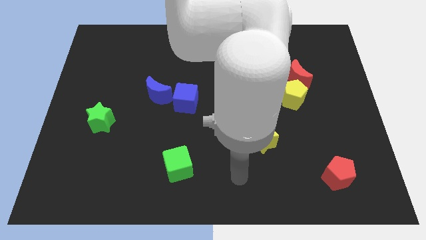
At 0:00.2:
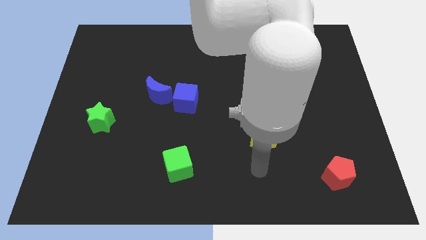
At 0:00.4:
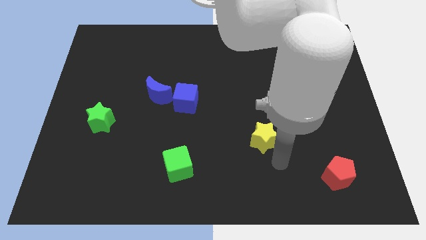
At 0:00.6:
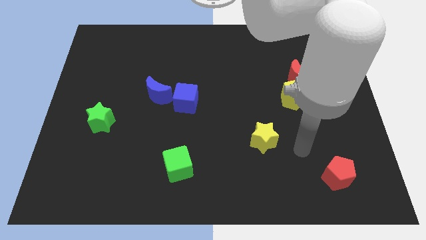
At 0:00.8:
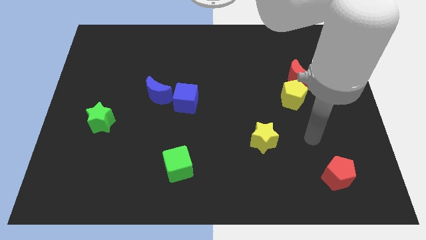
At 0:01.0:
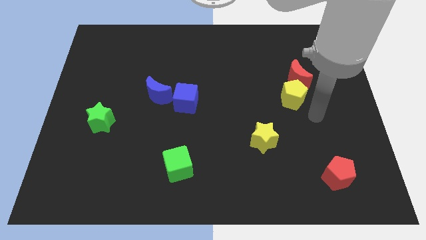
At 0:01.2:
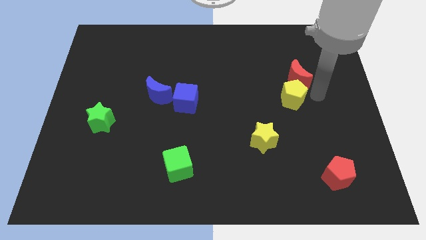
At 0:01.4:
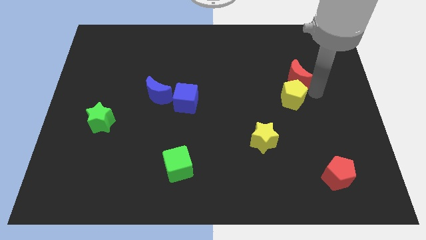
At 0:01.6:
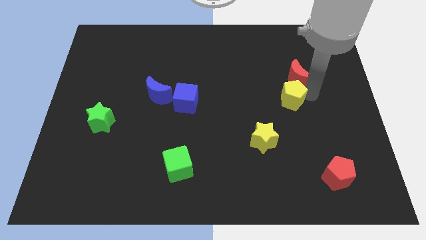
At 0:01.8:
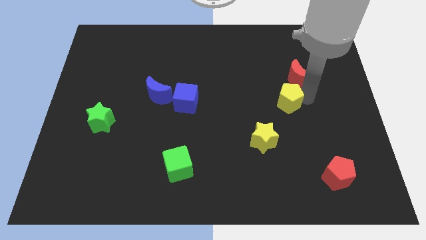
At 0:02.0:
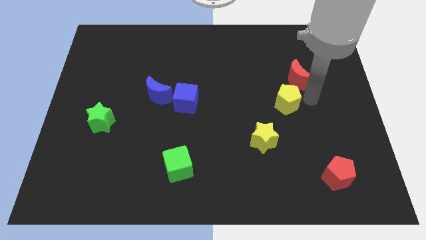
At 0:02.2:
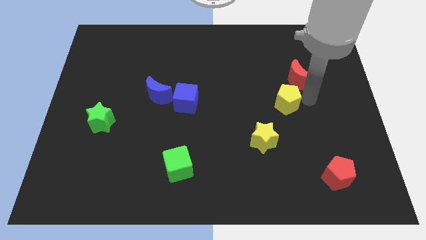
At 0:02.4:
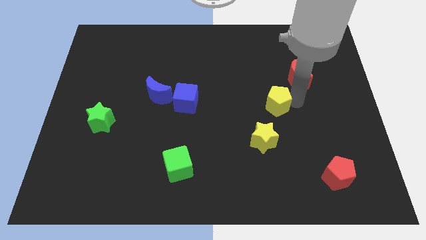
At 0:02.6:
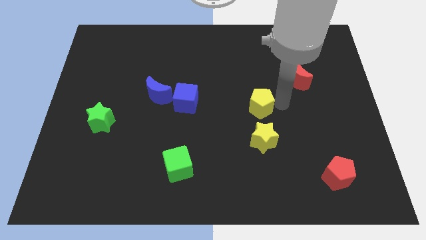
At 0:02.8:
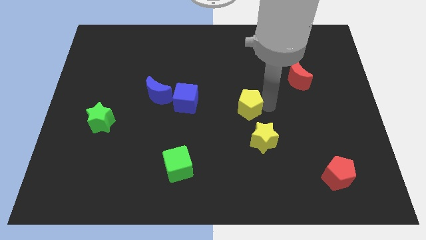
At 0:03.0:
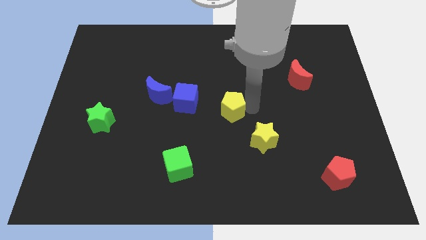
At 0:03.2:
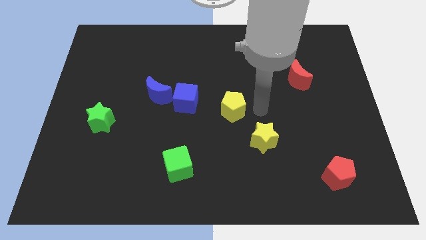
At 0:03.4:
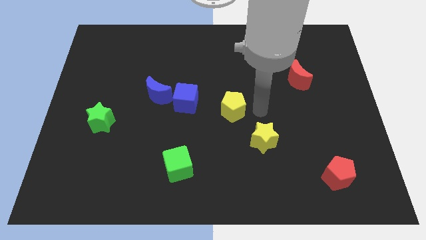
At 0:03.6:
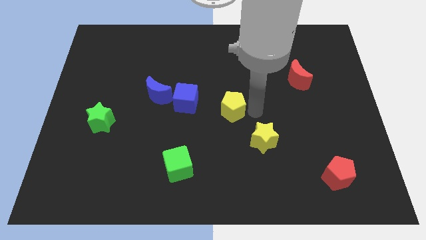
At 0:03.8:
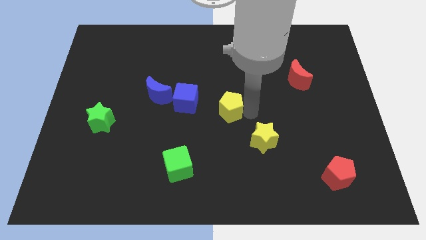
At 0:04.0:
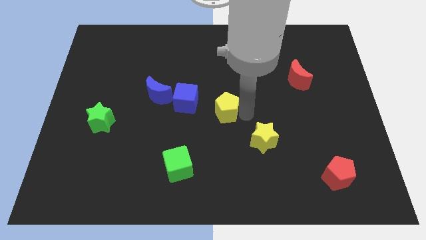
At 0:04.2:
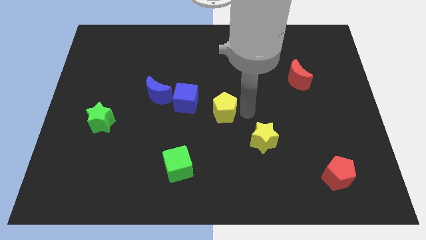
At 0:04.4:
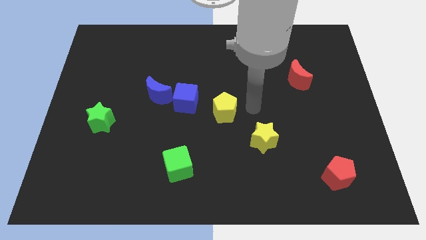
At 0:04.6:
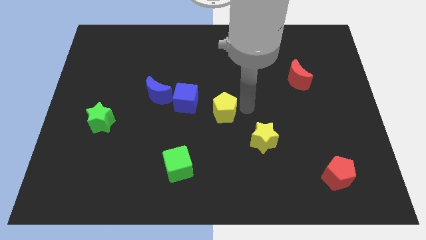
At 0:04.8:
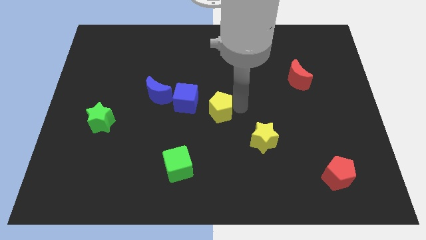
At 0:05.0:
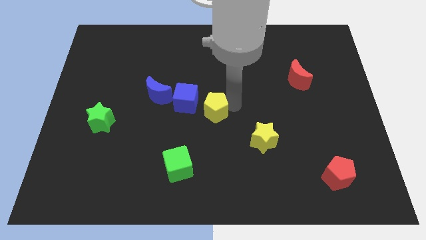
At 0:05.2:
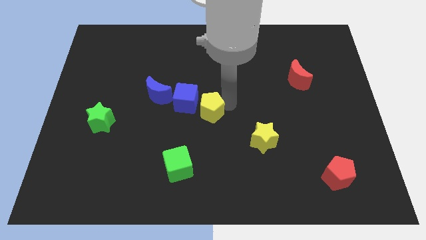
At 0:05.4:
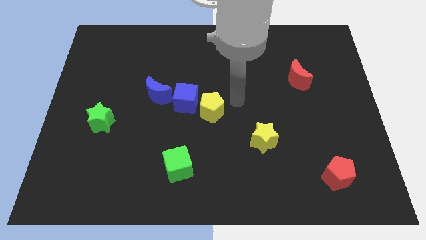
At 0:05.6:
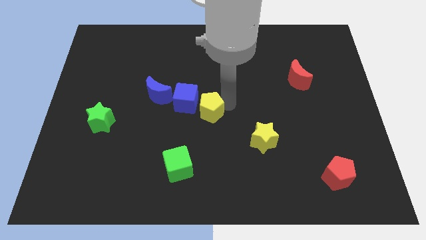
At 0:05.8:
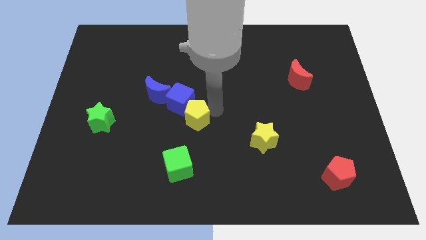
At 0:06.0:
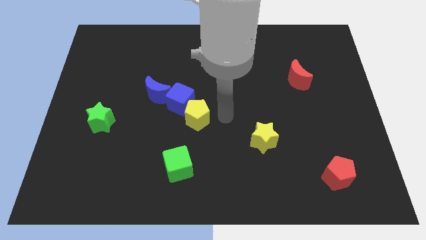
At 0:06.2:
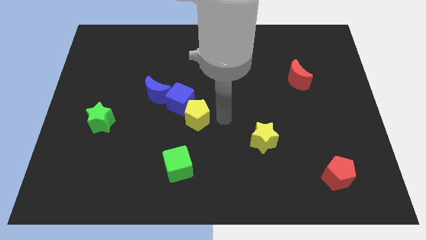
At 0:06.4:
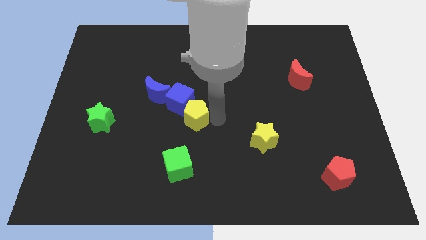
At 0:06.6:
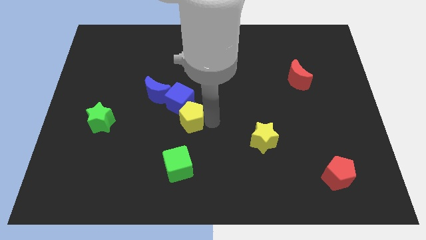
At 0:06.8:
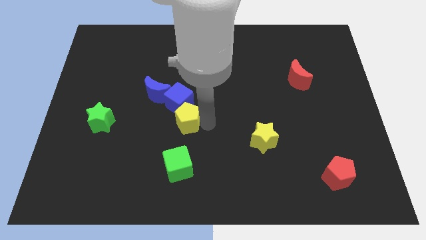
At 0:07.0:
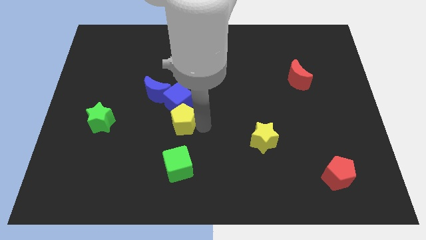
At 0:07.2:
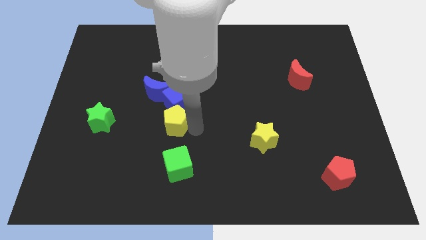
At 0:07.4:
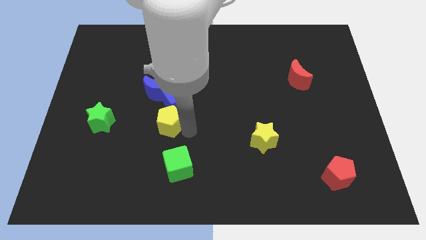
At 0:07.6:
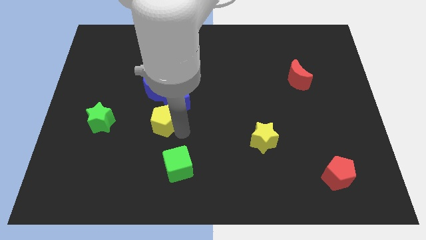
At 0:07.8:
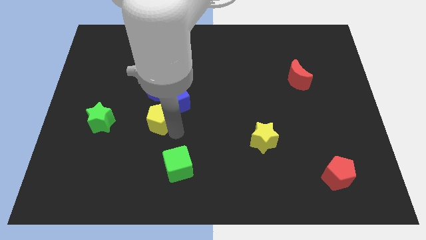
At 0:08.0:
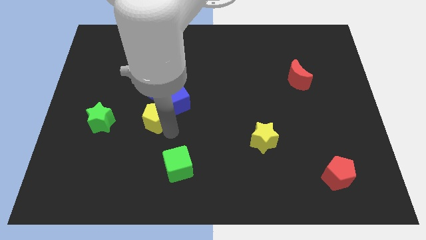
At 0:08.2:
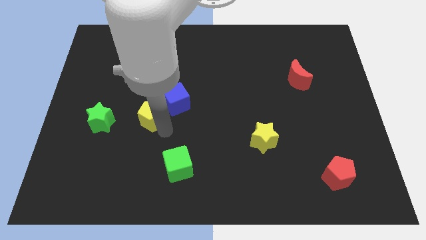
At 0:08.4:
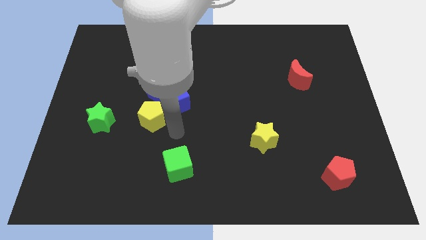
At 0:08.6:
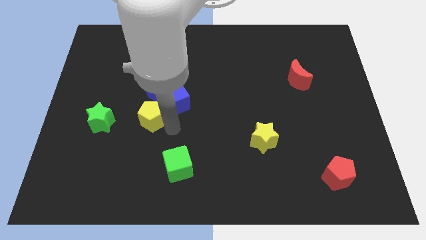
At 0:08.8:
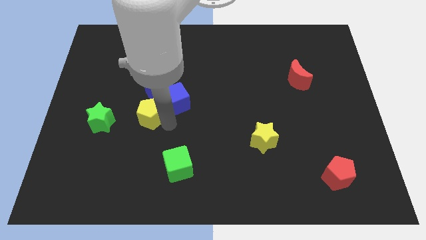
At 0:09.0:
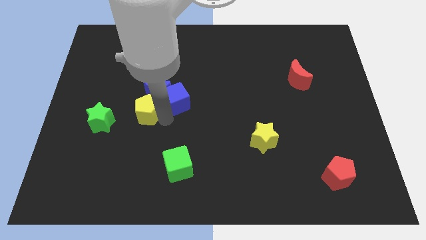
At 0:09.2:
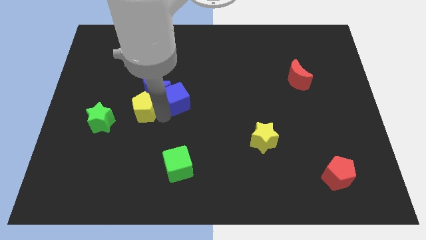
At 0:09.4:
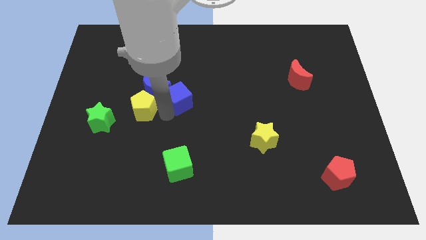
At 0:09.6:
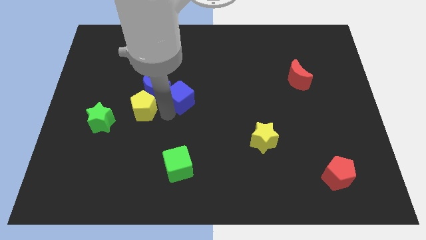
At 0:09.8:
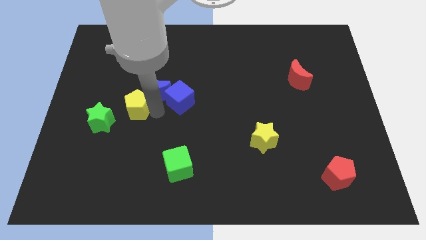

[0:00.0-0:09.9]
put the yellow pentagon to the left side of the blue moon

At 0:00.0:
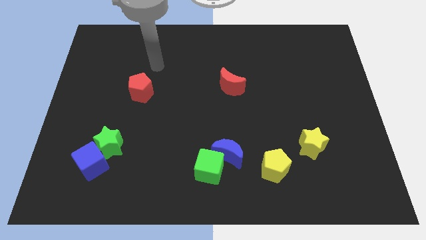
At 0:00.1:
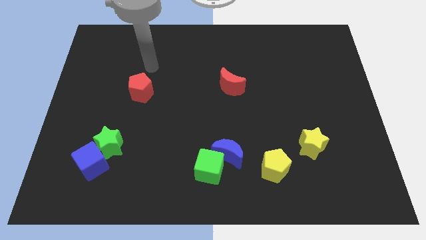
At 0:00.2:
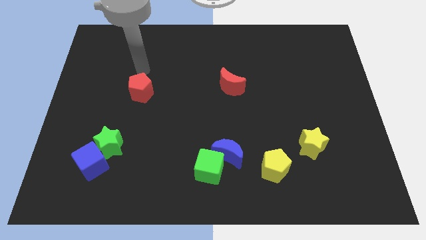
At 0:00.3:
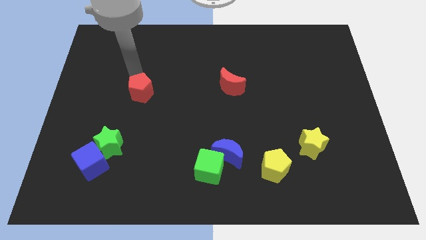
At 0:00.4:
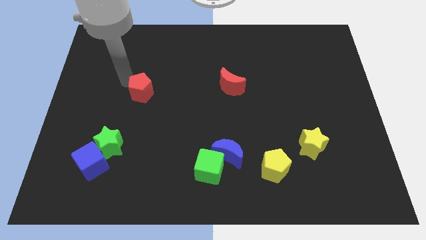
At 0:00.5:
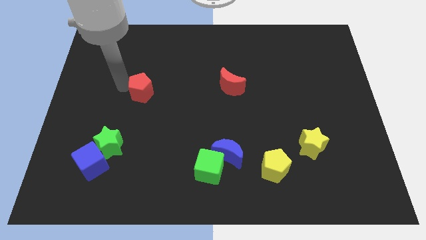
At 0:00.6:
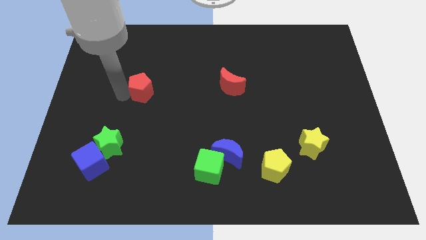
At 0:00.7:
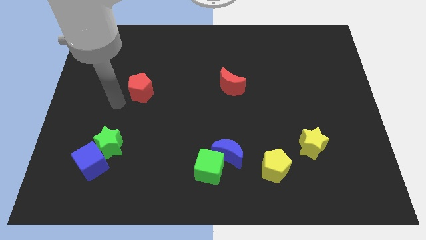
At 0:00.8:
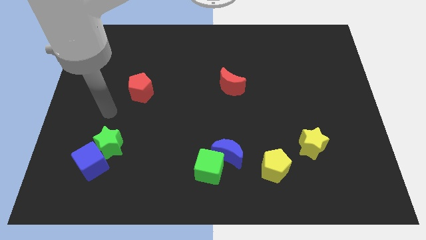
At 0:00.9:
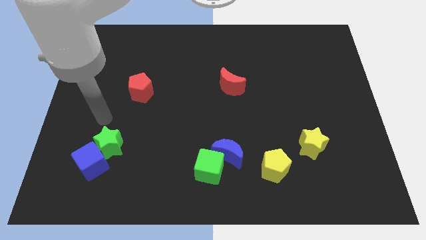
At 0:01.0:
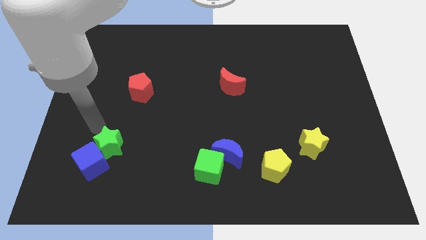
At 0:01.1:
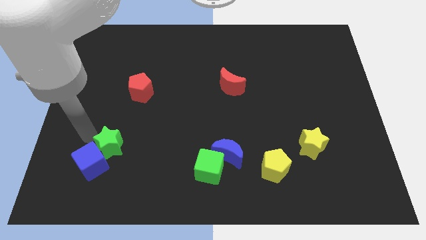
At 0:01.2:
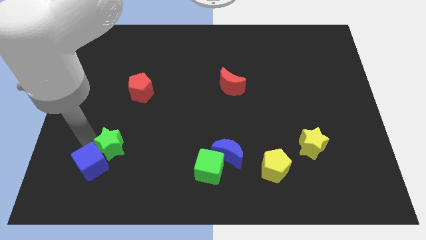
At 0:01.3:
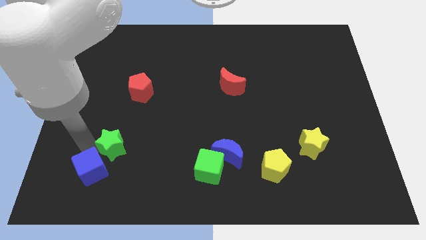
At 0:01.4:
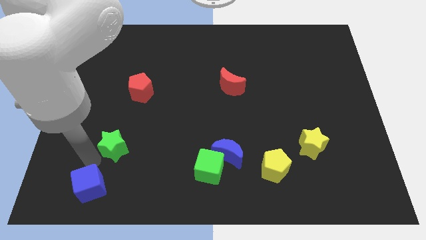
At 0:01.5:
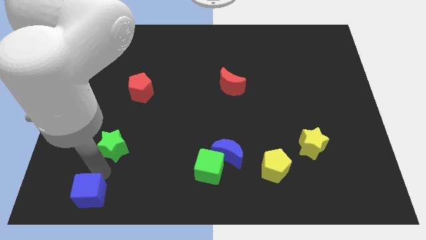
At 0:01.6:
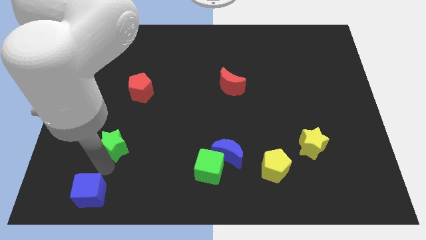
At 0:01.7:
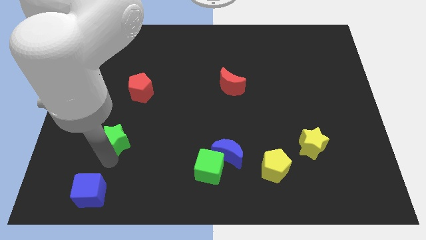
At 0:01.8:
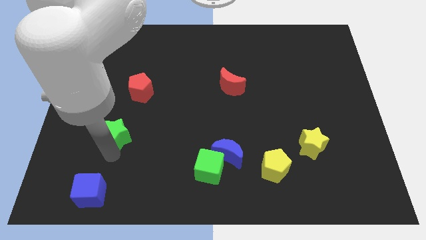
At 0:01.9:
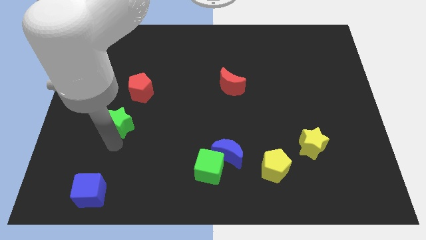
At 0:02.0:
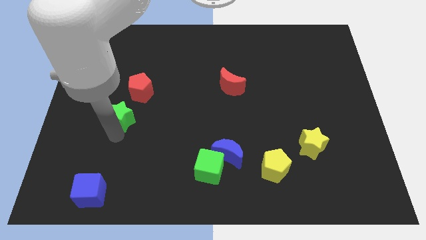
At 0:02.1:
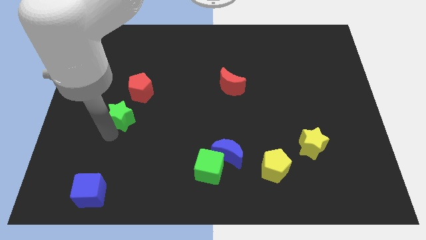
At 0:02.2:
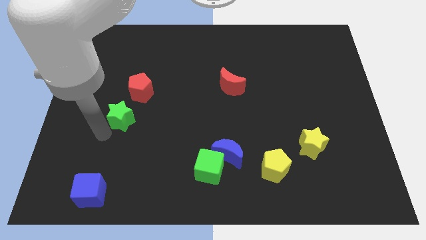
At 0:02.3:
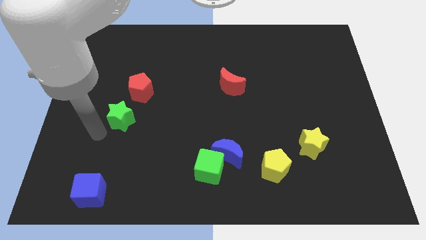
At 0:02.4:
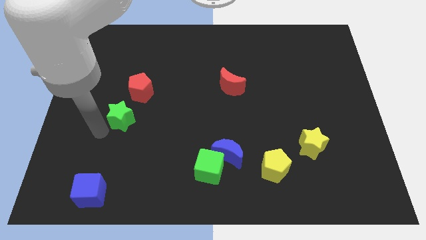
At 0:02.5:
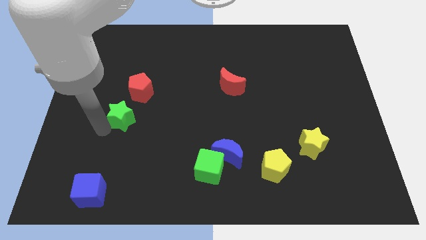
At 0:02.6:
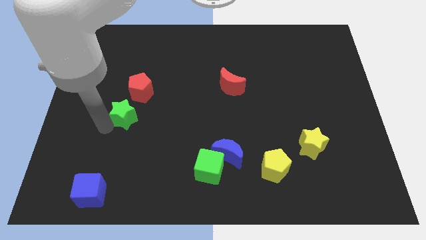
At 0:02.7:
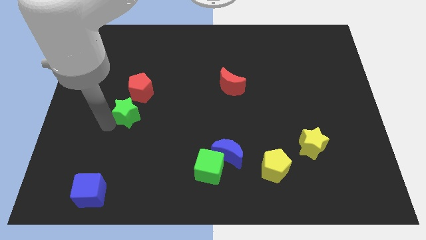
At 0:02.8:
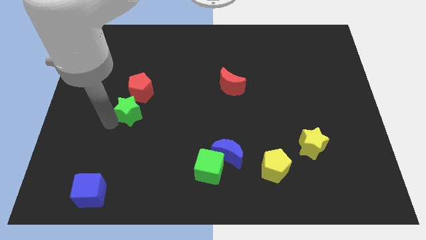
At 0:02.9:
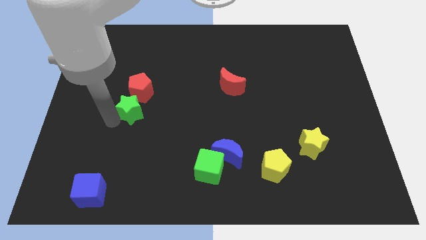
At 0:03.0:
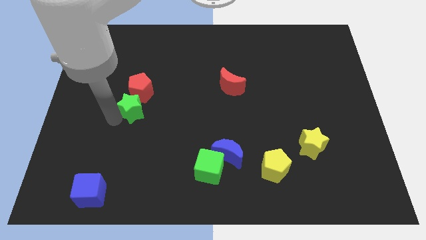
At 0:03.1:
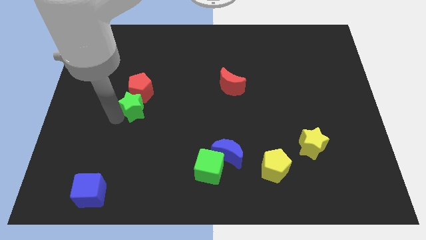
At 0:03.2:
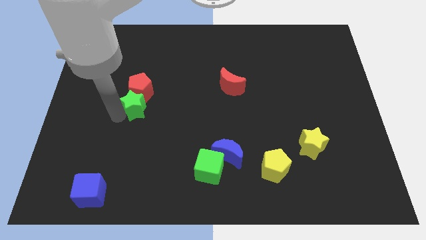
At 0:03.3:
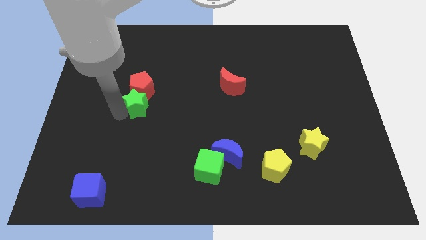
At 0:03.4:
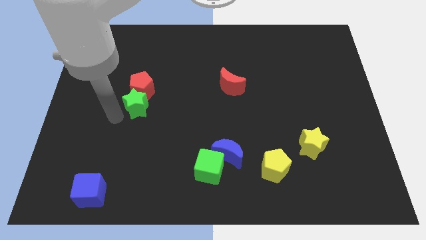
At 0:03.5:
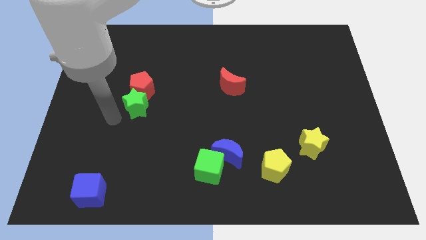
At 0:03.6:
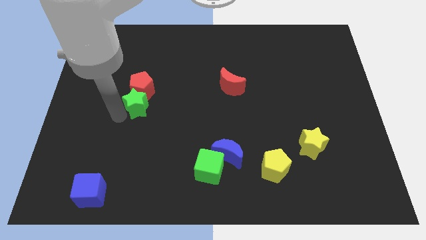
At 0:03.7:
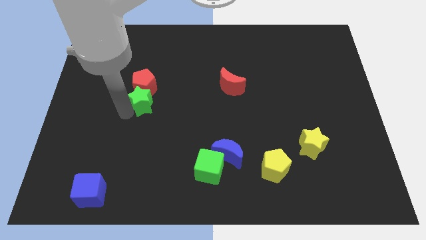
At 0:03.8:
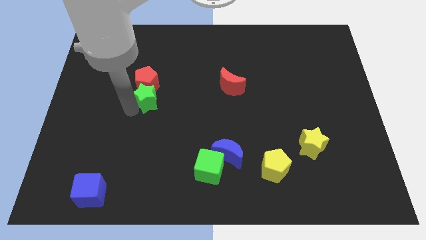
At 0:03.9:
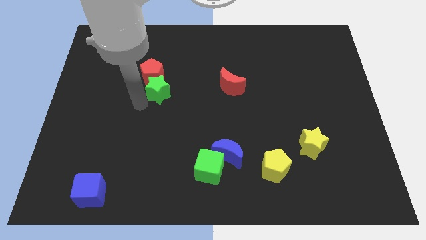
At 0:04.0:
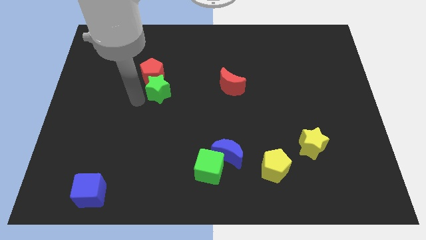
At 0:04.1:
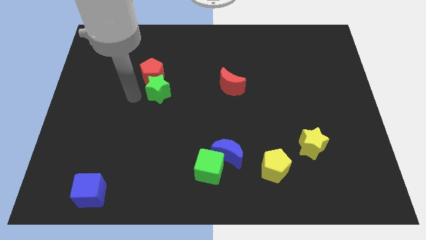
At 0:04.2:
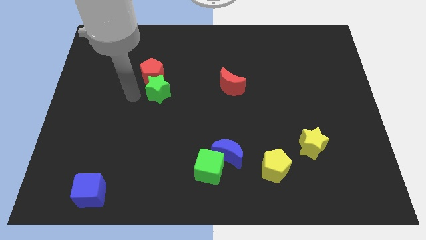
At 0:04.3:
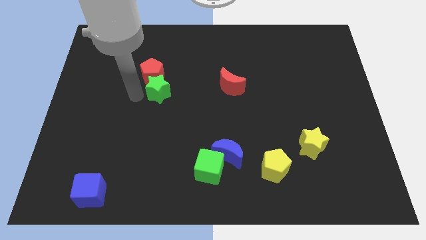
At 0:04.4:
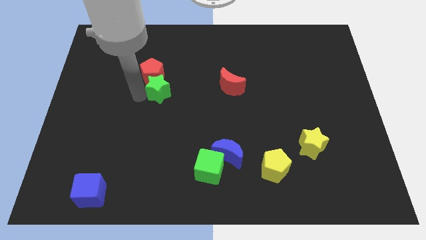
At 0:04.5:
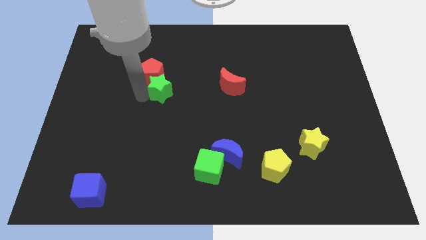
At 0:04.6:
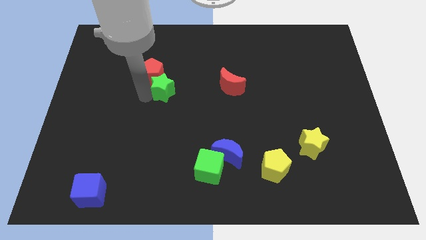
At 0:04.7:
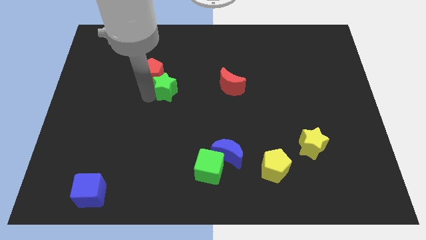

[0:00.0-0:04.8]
push the green star to the left of the red moon
